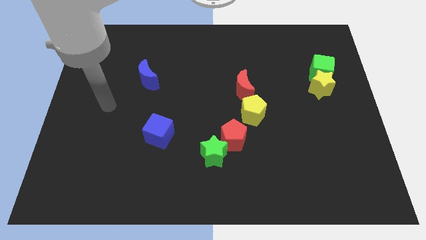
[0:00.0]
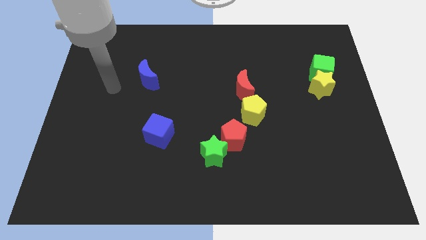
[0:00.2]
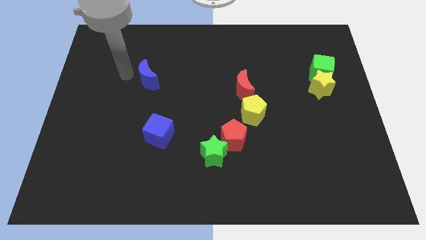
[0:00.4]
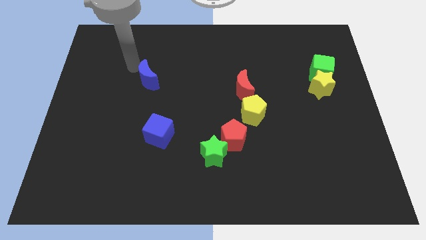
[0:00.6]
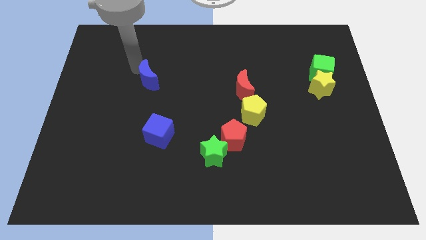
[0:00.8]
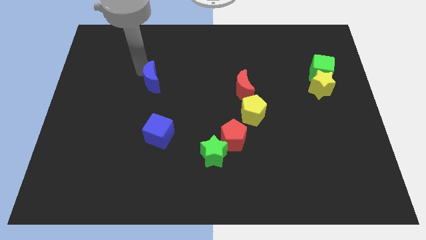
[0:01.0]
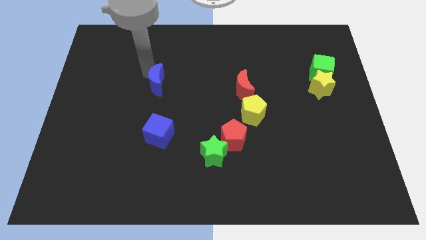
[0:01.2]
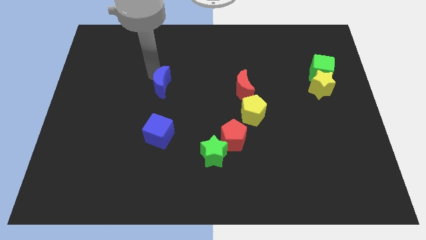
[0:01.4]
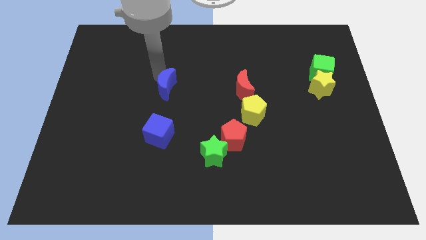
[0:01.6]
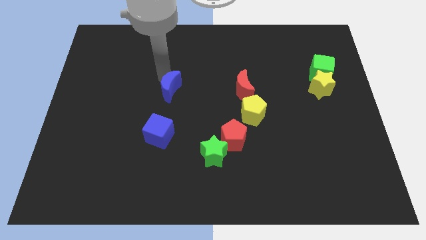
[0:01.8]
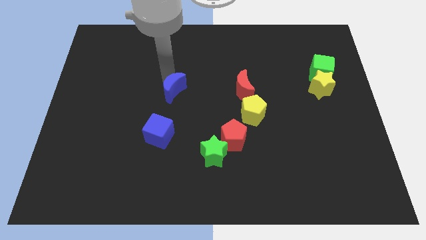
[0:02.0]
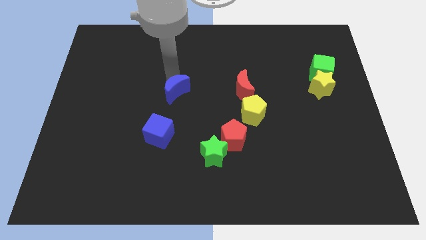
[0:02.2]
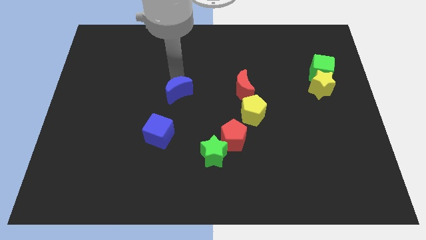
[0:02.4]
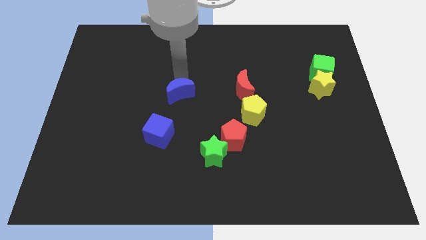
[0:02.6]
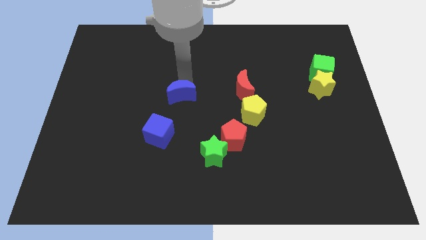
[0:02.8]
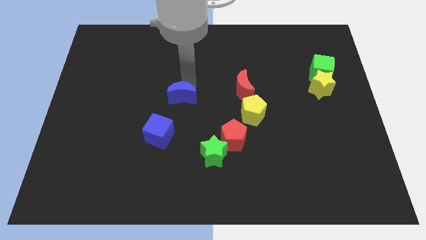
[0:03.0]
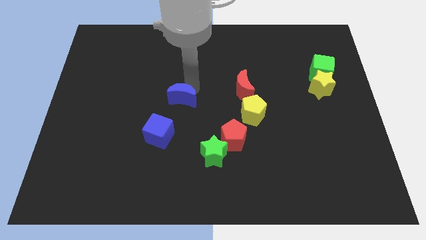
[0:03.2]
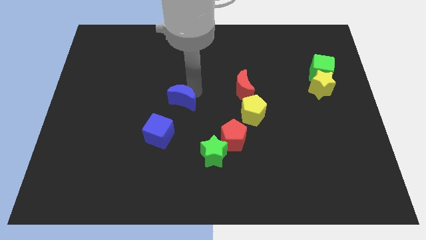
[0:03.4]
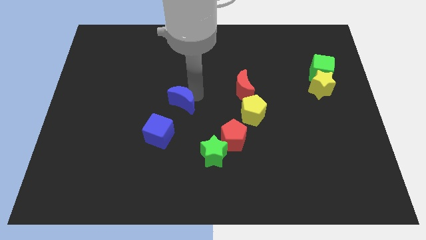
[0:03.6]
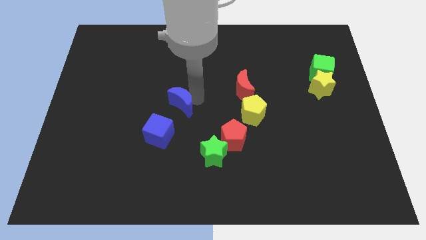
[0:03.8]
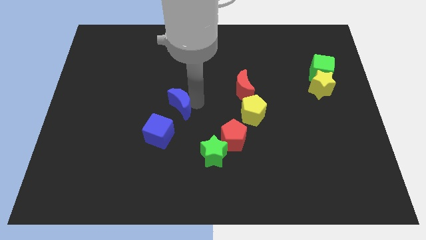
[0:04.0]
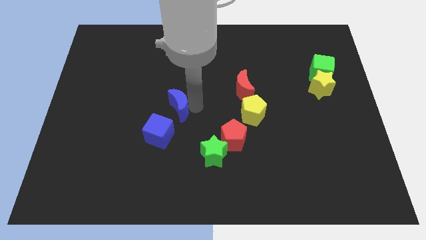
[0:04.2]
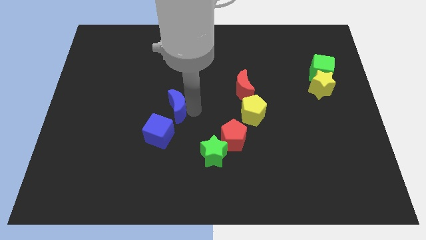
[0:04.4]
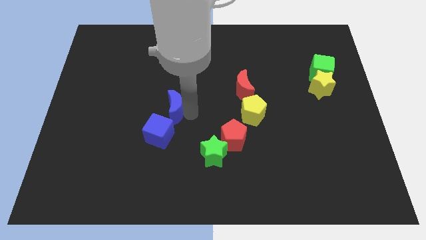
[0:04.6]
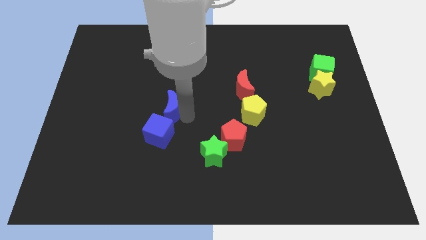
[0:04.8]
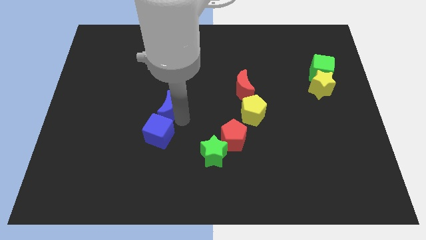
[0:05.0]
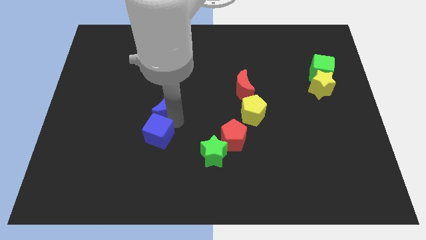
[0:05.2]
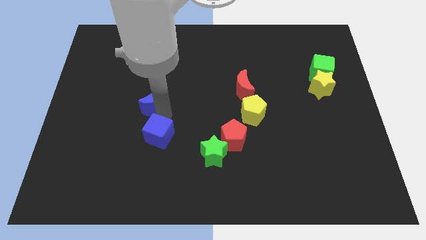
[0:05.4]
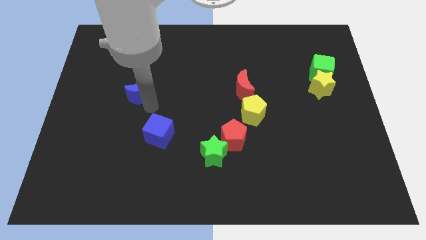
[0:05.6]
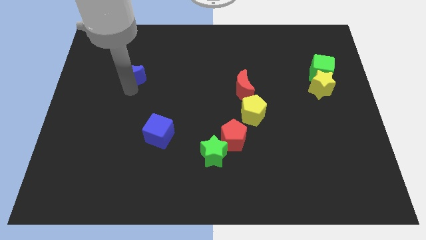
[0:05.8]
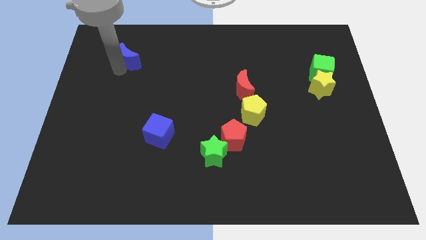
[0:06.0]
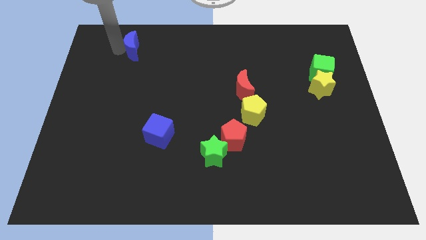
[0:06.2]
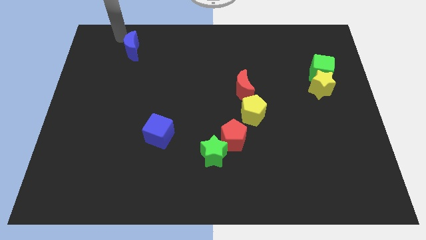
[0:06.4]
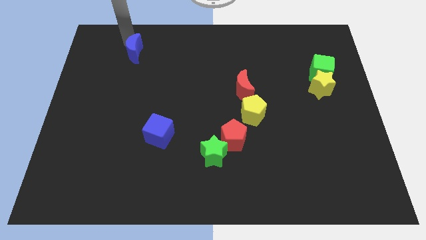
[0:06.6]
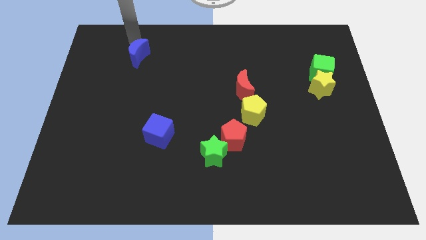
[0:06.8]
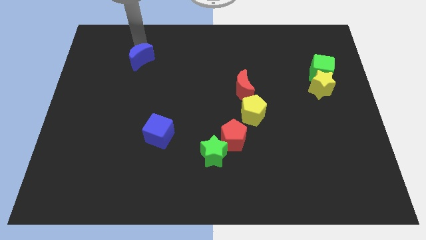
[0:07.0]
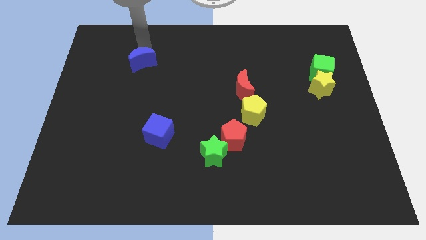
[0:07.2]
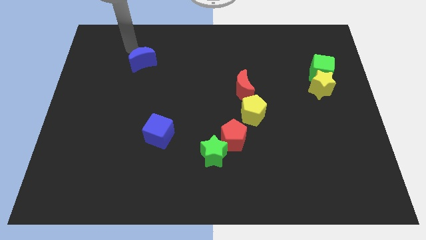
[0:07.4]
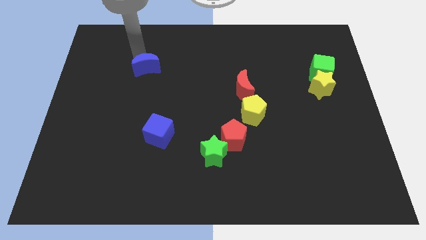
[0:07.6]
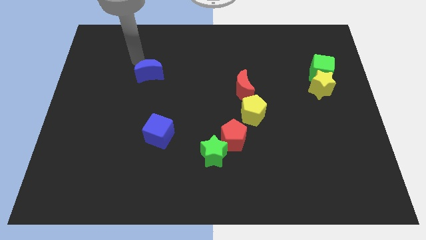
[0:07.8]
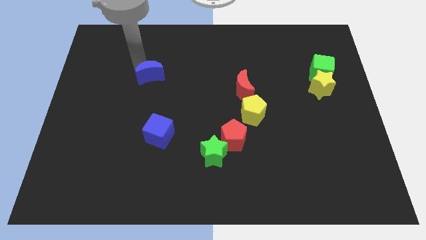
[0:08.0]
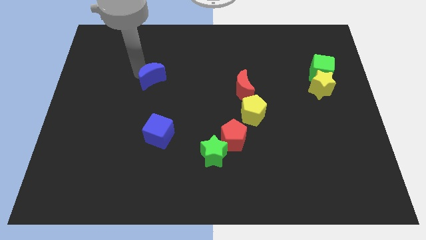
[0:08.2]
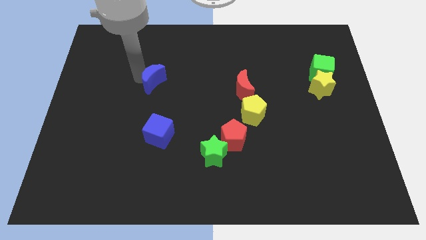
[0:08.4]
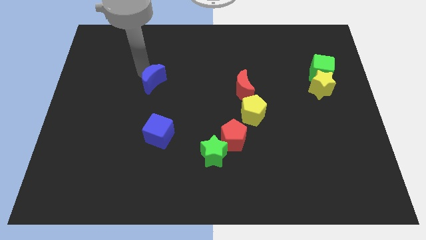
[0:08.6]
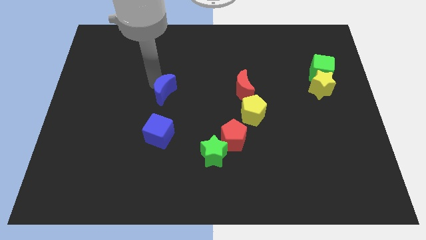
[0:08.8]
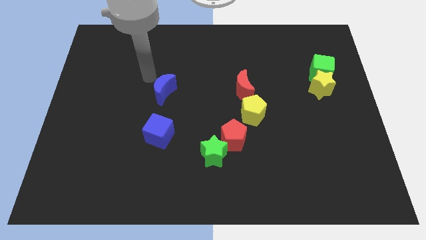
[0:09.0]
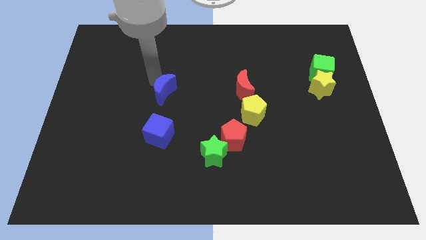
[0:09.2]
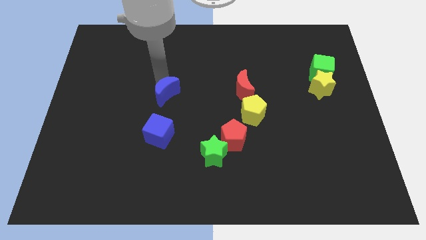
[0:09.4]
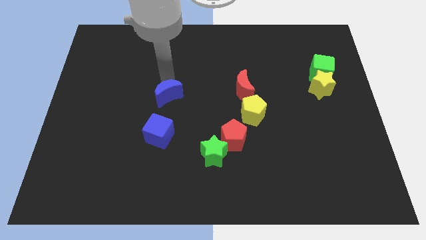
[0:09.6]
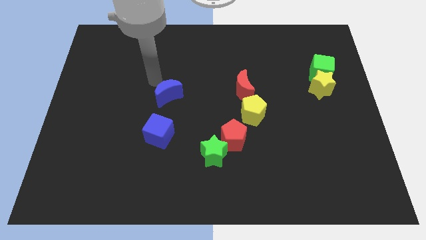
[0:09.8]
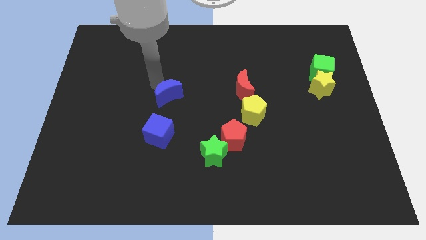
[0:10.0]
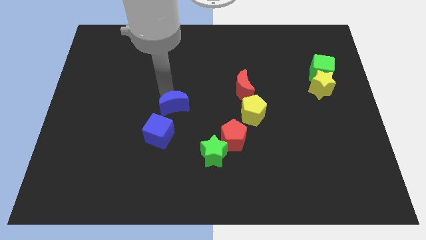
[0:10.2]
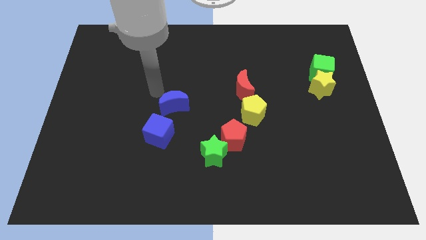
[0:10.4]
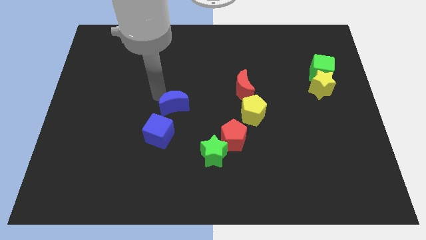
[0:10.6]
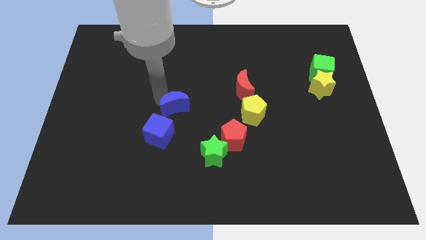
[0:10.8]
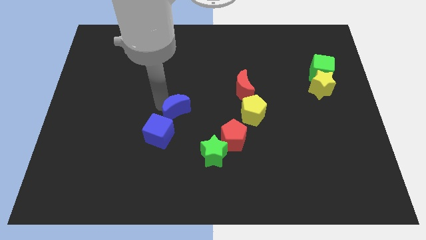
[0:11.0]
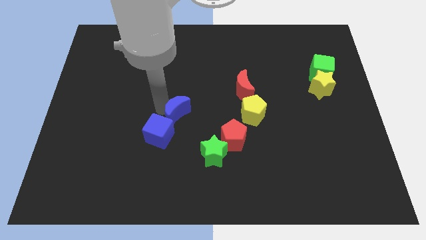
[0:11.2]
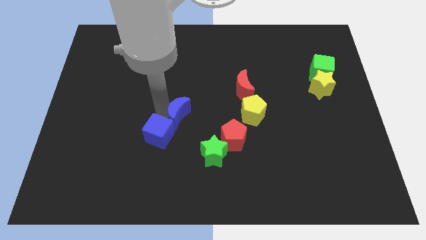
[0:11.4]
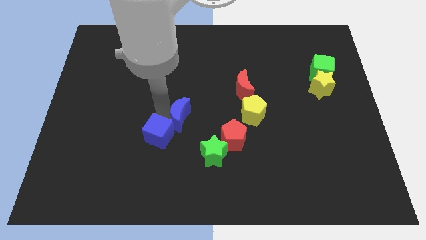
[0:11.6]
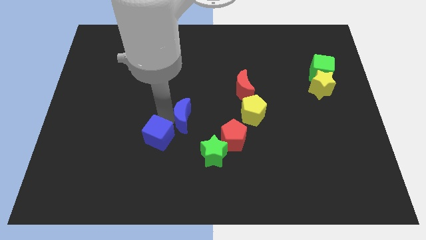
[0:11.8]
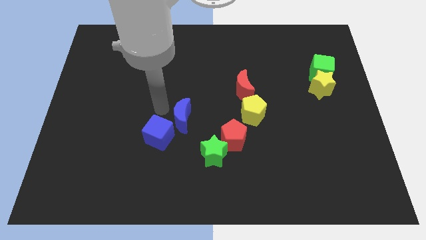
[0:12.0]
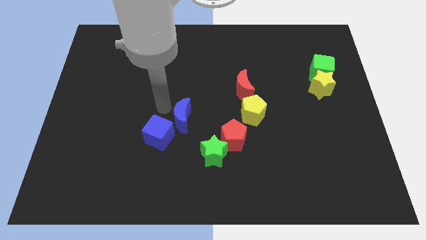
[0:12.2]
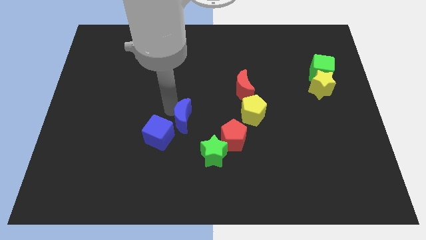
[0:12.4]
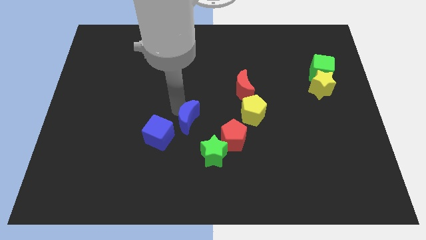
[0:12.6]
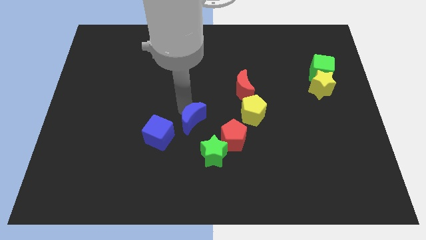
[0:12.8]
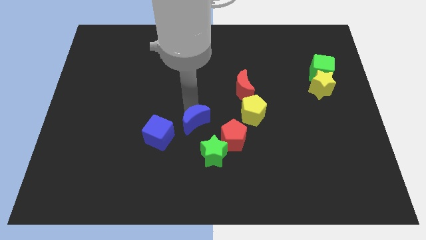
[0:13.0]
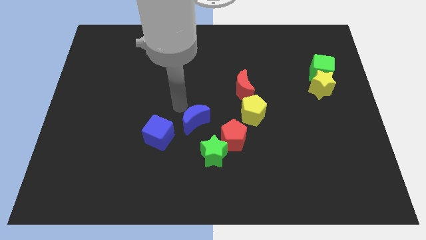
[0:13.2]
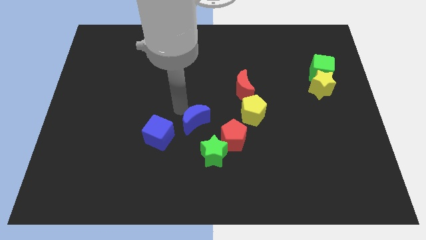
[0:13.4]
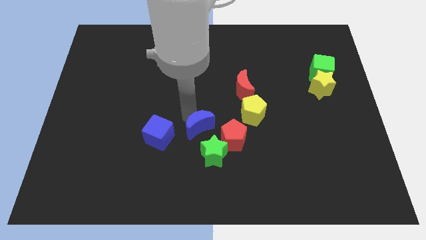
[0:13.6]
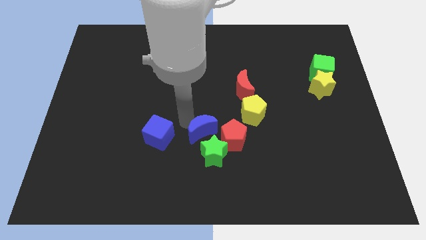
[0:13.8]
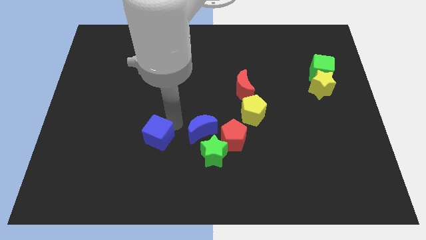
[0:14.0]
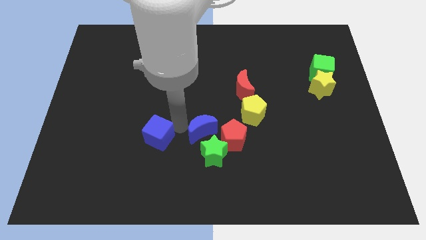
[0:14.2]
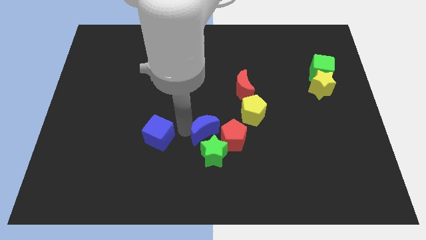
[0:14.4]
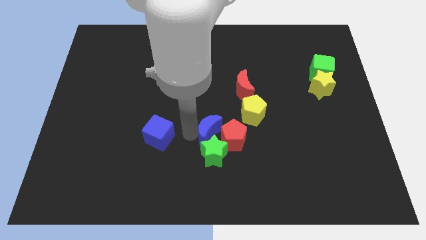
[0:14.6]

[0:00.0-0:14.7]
slide the blue moon next to the red pentagon
